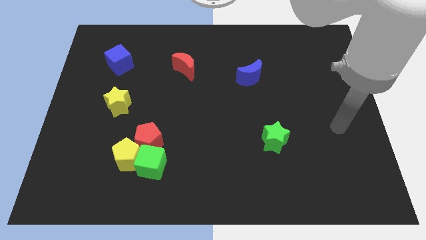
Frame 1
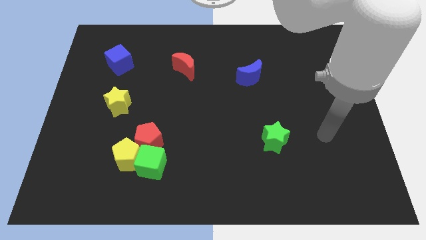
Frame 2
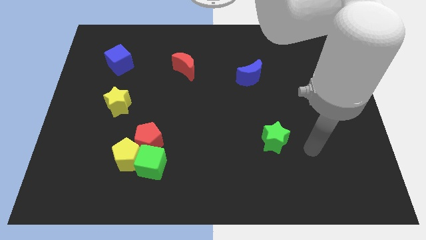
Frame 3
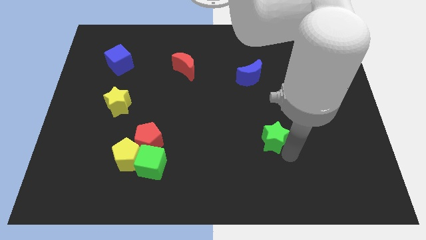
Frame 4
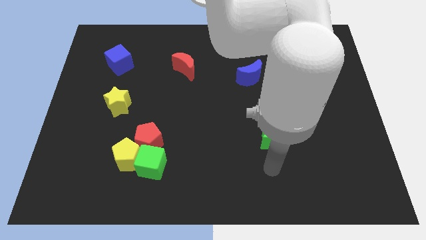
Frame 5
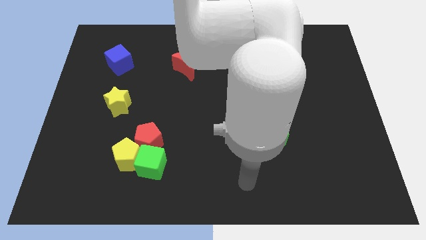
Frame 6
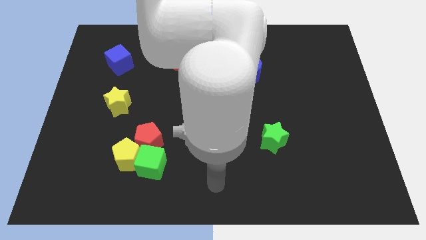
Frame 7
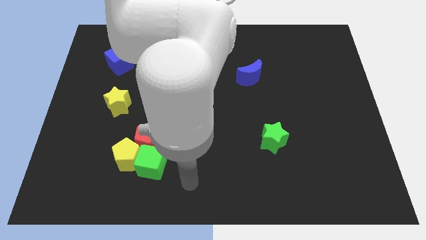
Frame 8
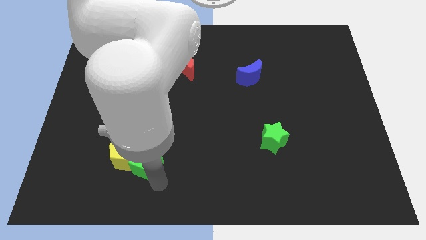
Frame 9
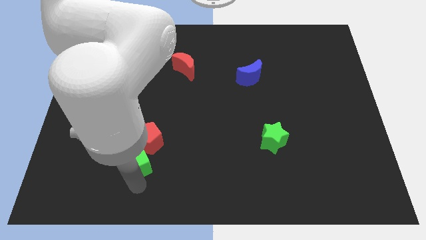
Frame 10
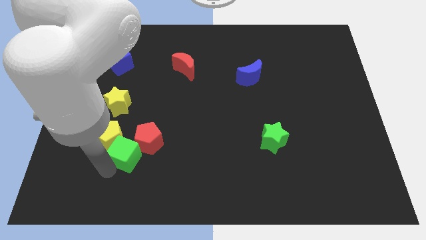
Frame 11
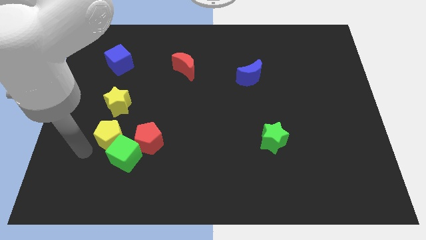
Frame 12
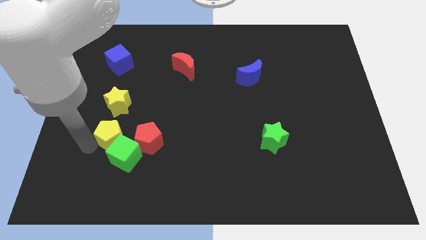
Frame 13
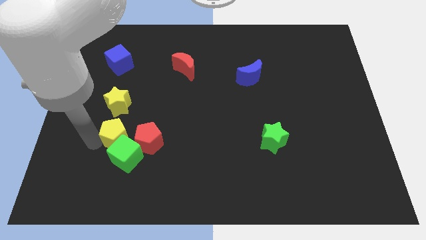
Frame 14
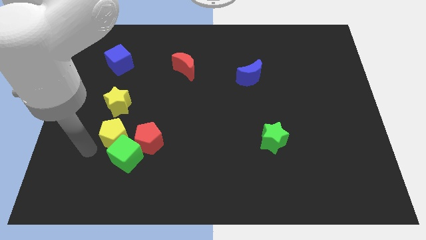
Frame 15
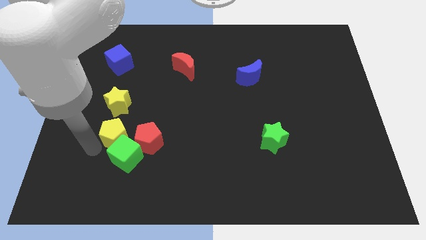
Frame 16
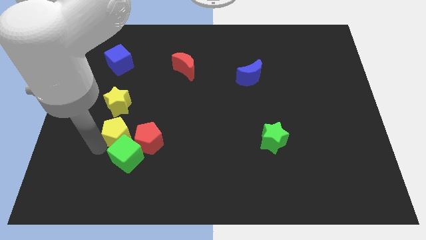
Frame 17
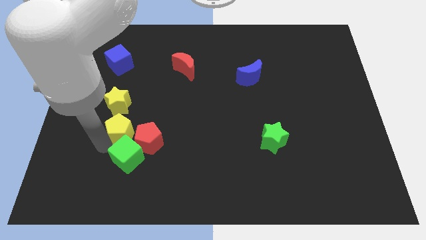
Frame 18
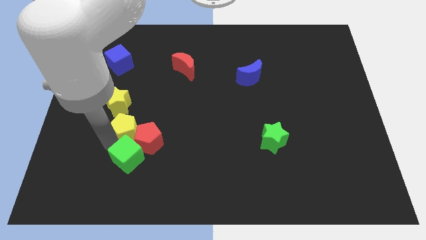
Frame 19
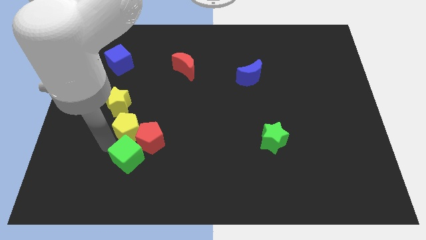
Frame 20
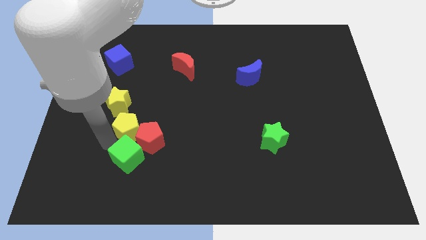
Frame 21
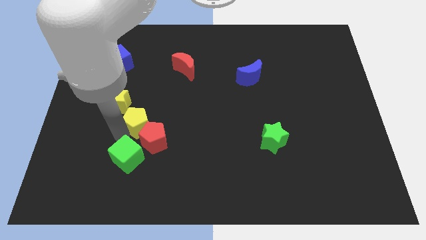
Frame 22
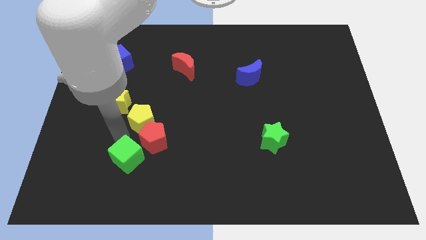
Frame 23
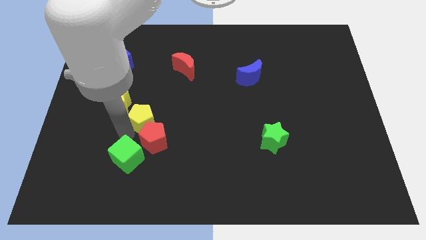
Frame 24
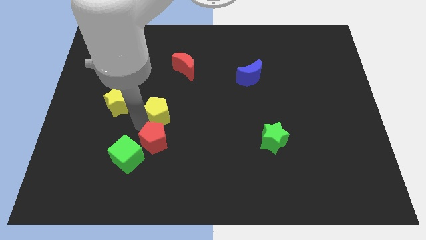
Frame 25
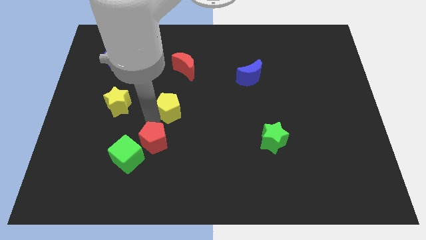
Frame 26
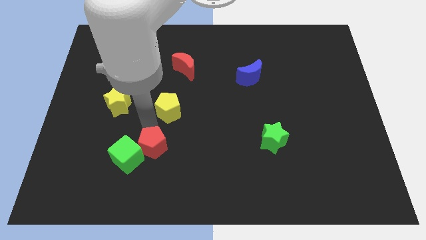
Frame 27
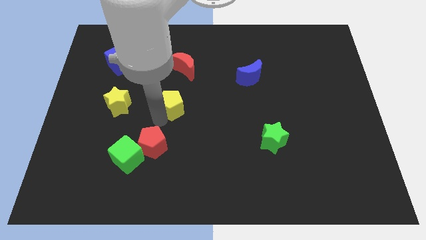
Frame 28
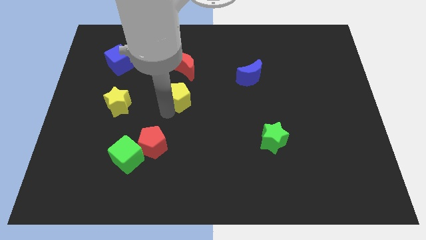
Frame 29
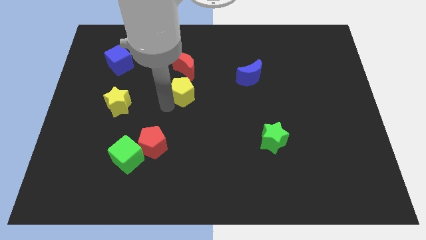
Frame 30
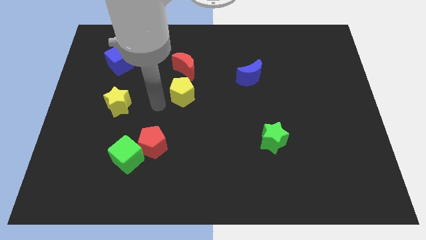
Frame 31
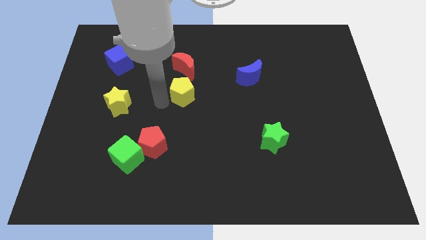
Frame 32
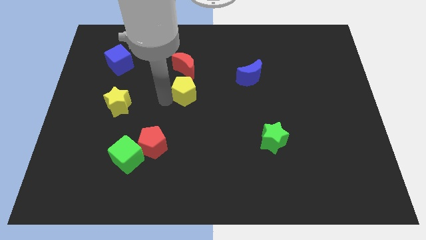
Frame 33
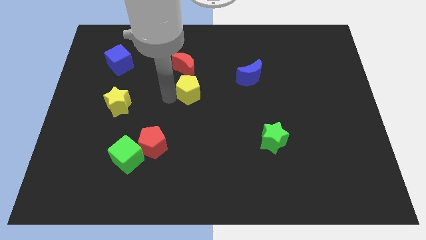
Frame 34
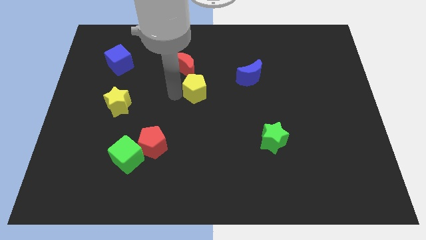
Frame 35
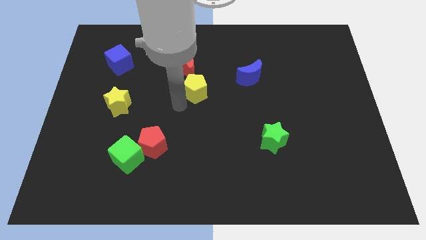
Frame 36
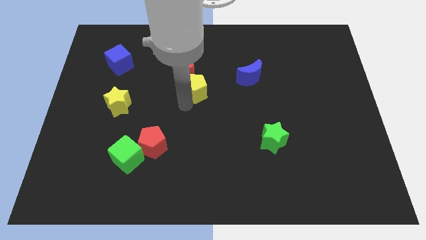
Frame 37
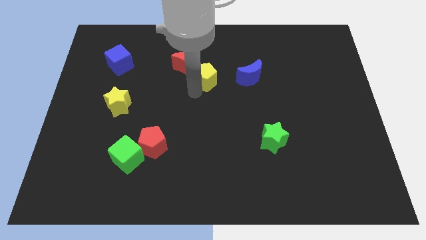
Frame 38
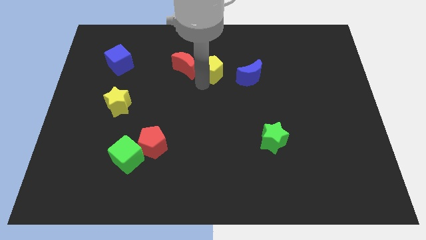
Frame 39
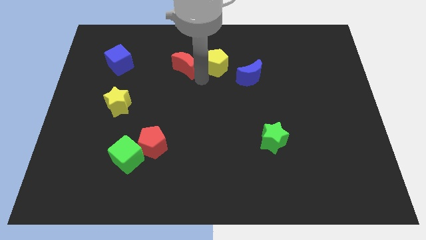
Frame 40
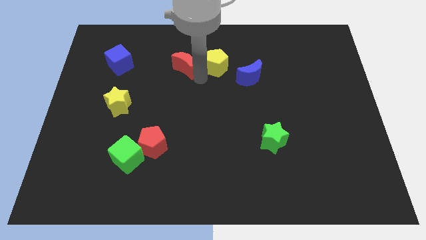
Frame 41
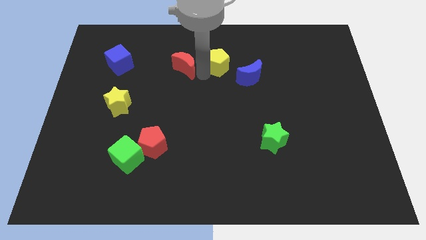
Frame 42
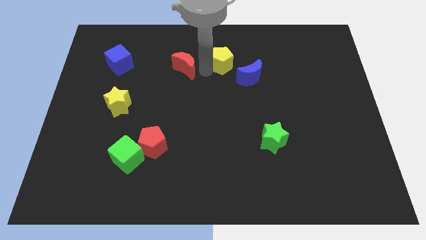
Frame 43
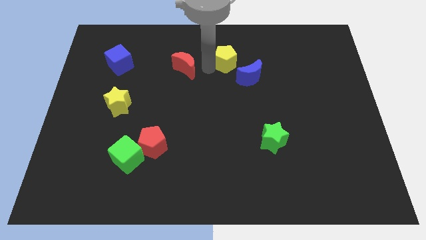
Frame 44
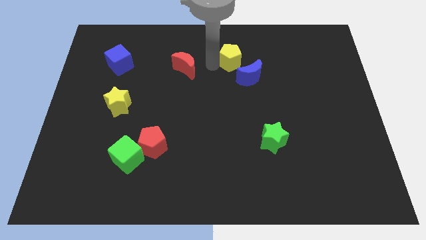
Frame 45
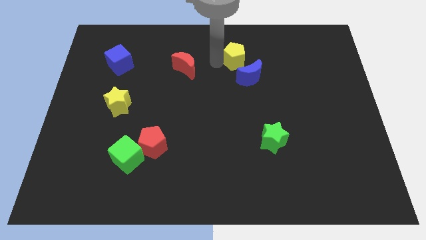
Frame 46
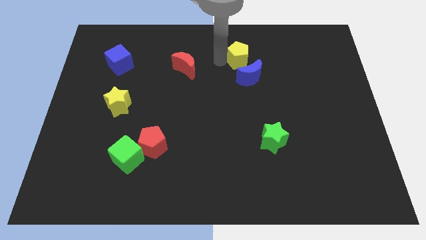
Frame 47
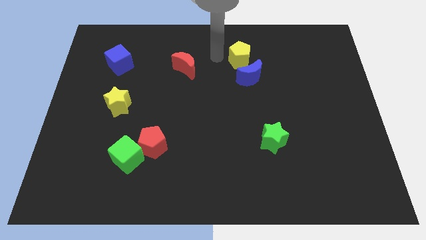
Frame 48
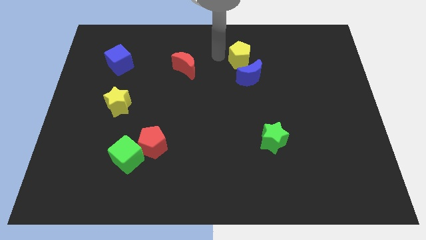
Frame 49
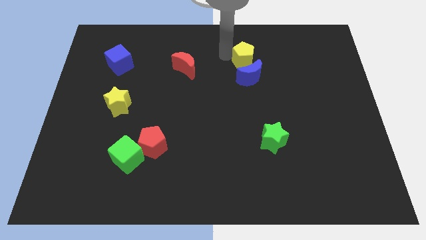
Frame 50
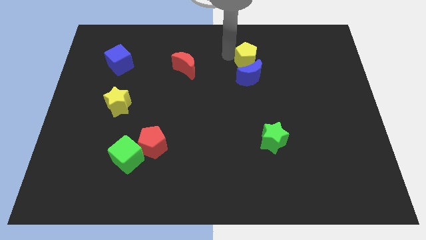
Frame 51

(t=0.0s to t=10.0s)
push the yellow pentagon diagonally up and to the right of the blue moon

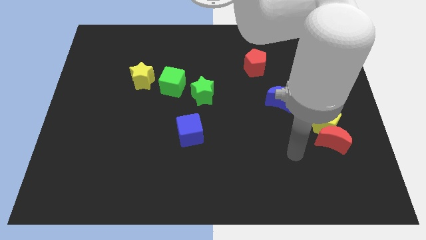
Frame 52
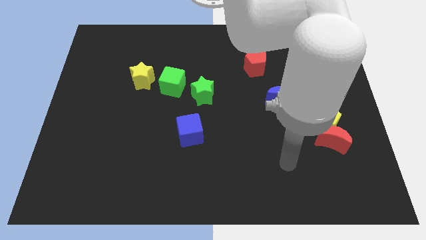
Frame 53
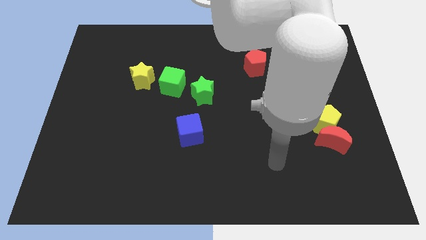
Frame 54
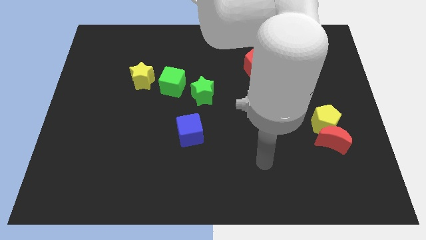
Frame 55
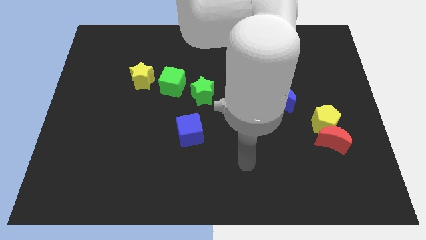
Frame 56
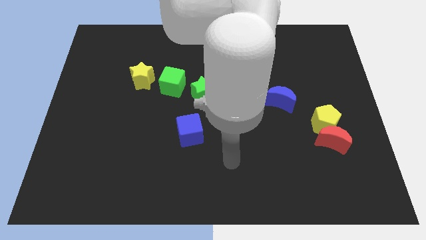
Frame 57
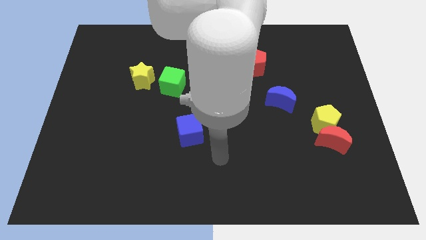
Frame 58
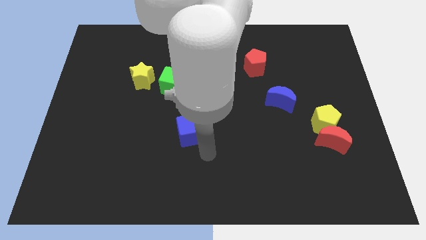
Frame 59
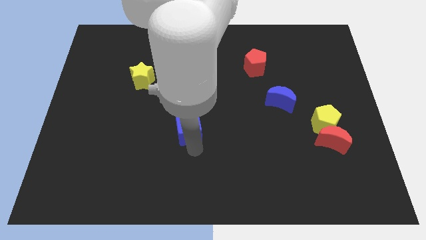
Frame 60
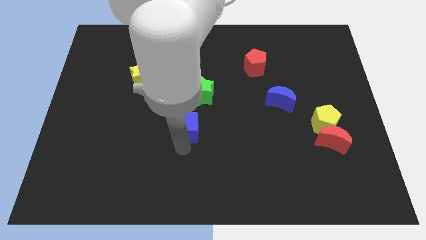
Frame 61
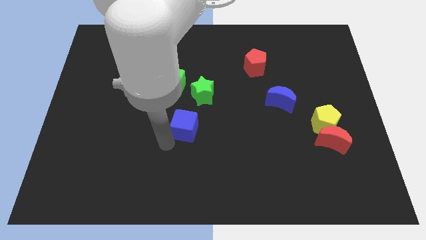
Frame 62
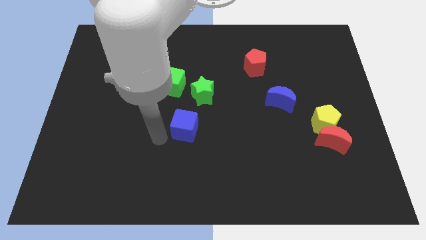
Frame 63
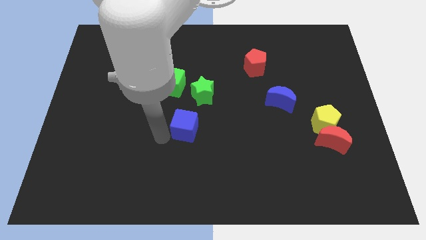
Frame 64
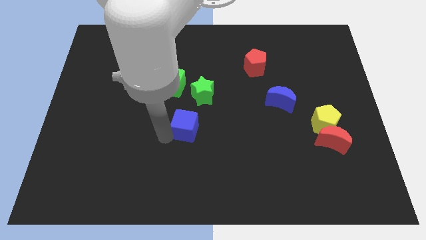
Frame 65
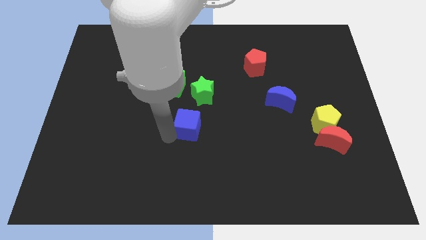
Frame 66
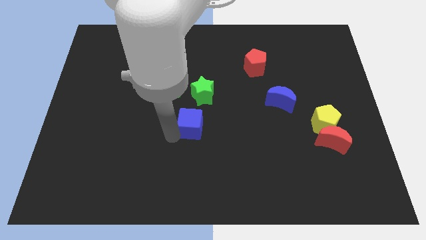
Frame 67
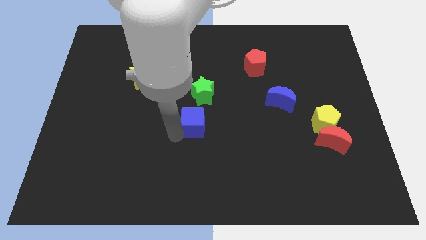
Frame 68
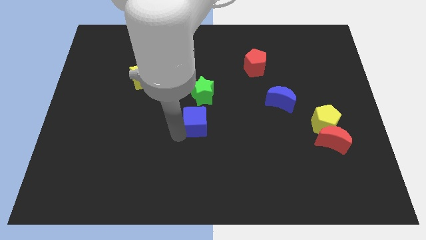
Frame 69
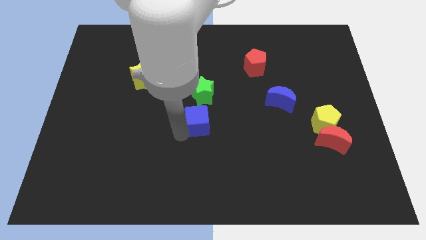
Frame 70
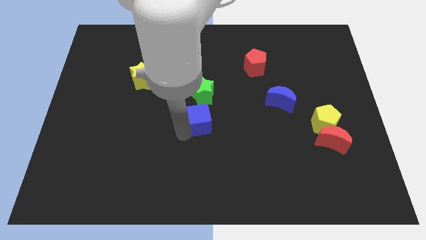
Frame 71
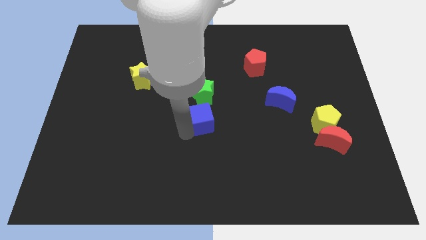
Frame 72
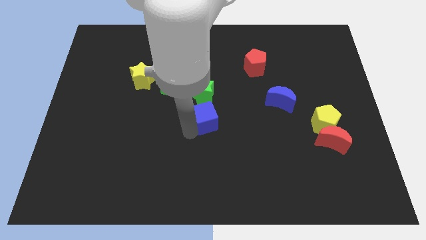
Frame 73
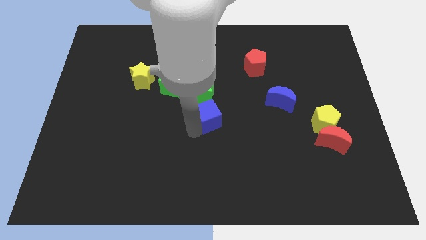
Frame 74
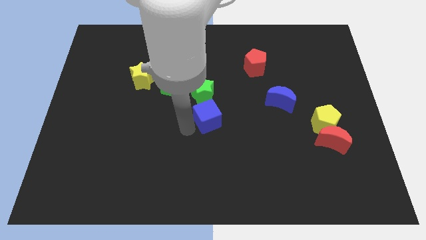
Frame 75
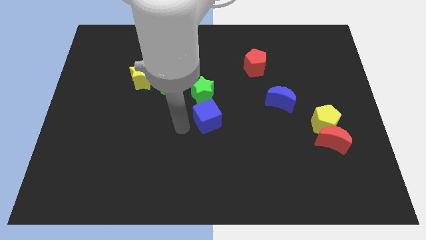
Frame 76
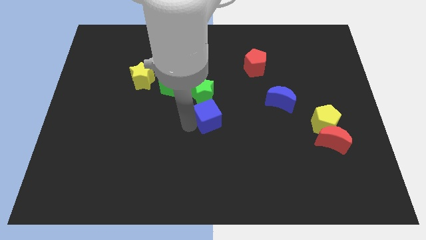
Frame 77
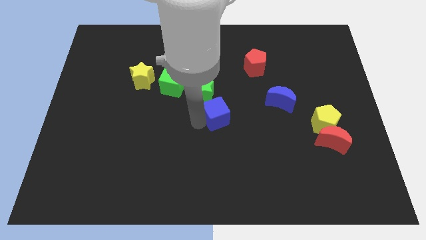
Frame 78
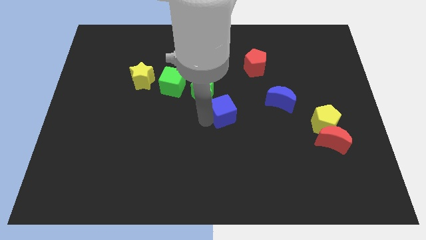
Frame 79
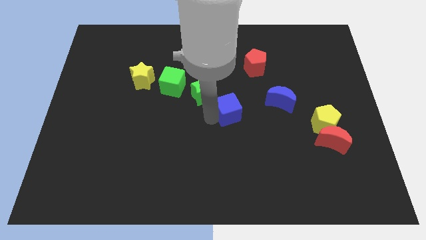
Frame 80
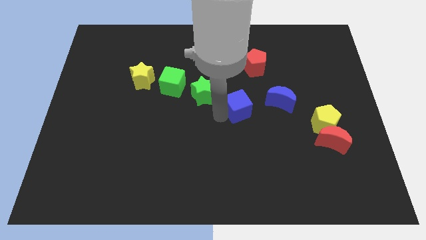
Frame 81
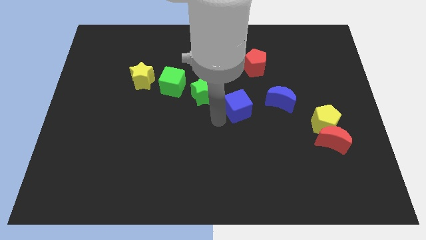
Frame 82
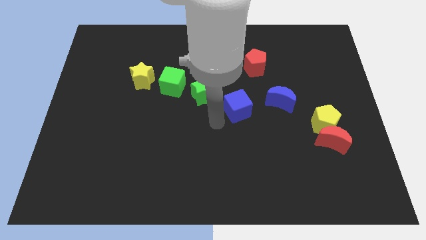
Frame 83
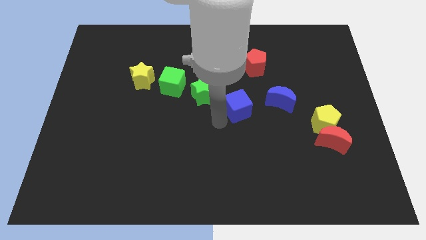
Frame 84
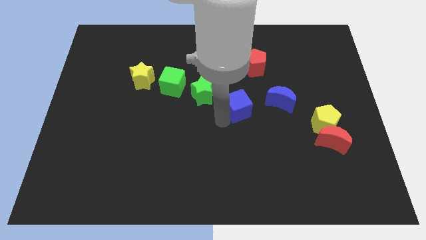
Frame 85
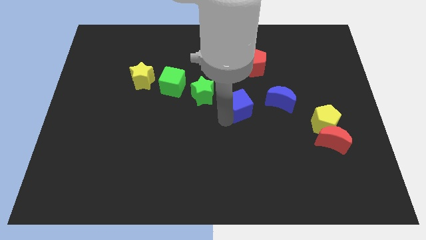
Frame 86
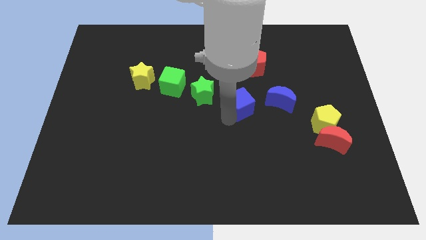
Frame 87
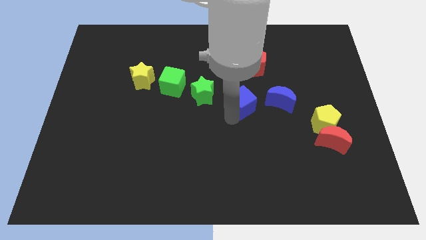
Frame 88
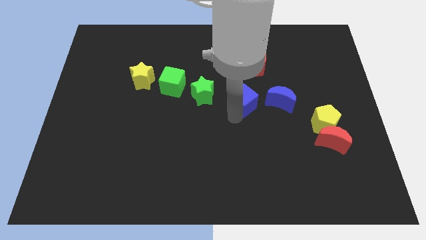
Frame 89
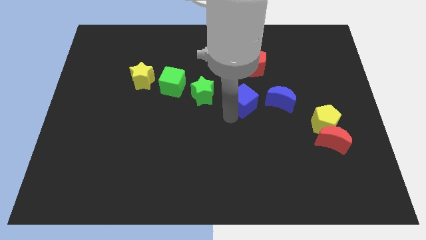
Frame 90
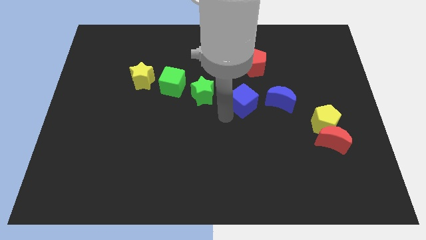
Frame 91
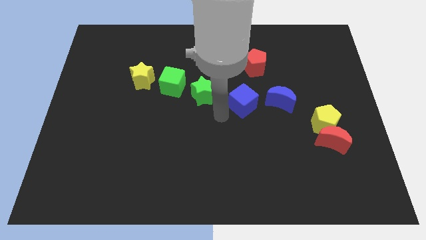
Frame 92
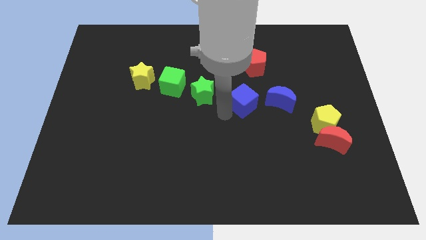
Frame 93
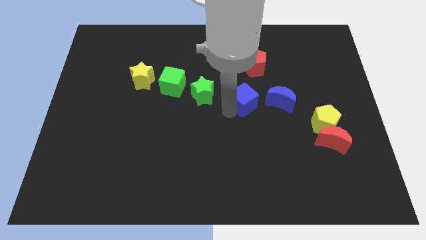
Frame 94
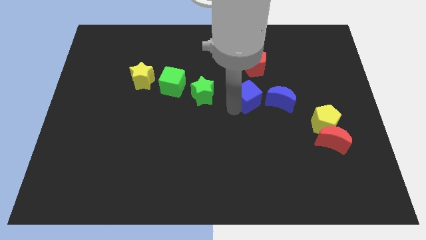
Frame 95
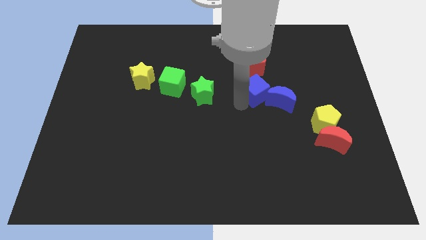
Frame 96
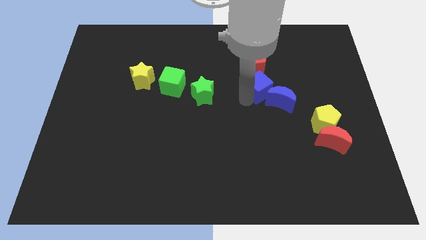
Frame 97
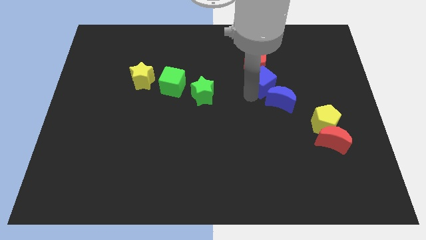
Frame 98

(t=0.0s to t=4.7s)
push the blue cube to the bottom right of the red pentagon
